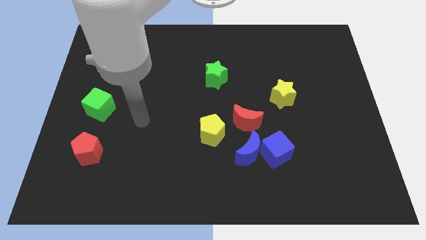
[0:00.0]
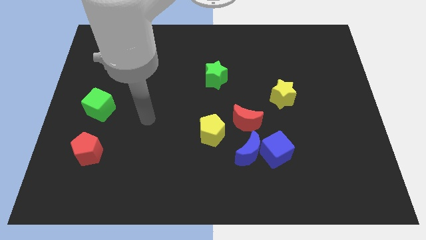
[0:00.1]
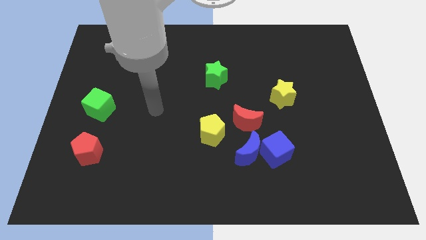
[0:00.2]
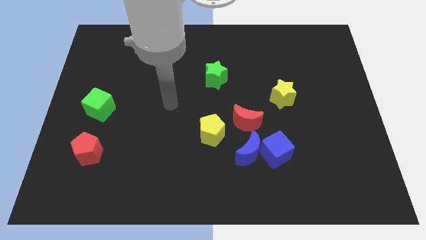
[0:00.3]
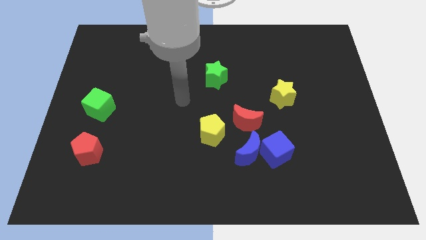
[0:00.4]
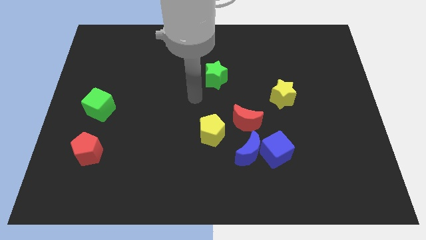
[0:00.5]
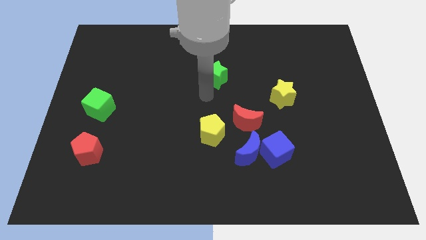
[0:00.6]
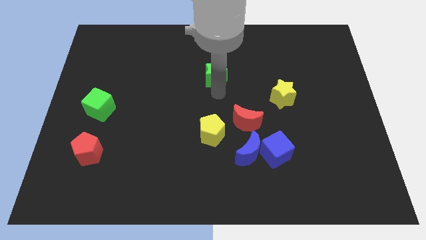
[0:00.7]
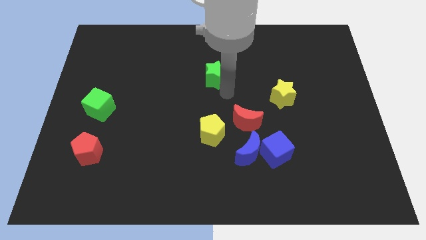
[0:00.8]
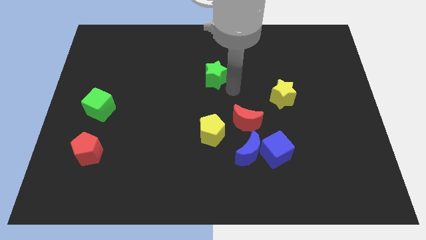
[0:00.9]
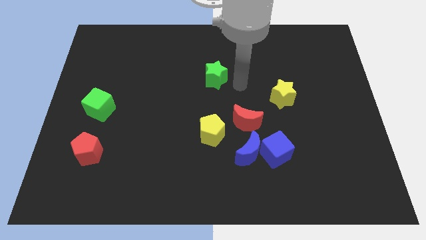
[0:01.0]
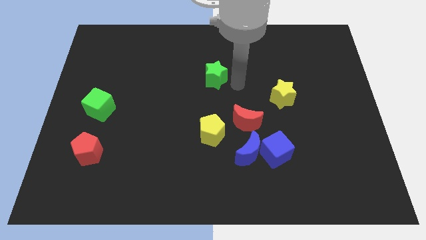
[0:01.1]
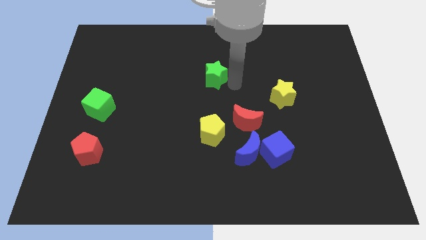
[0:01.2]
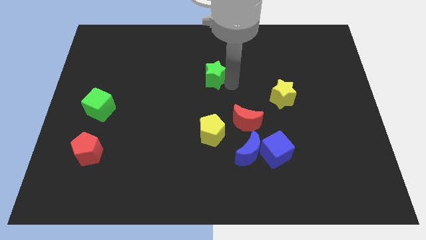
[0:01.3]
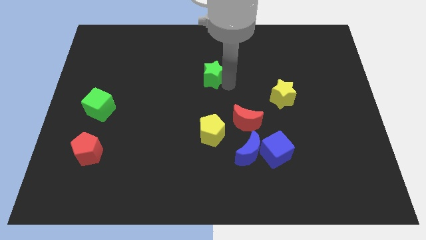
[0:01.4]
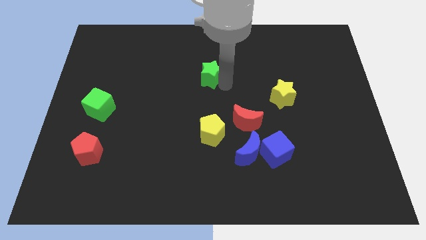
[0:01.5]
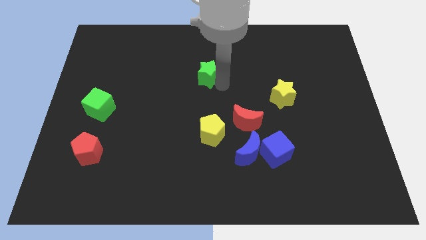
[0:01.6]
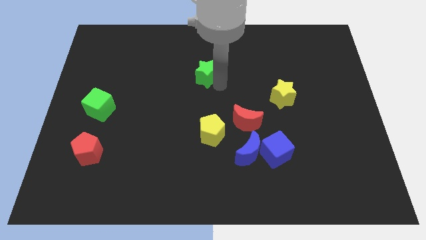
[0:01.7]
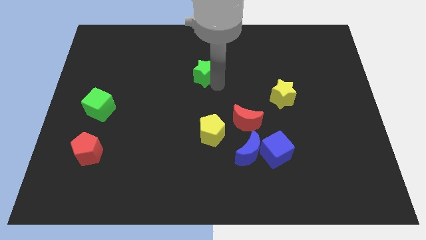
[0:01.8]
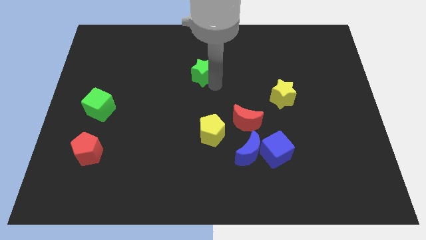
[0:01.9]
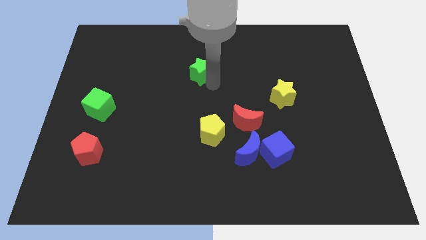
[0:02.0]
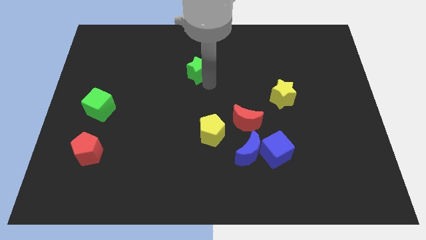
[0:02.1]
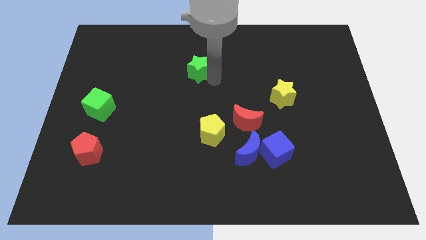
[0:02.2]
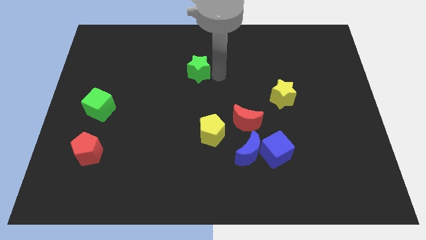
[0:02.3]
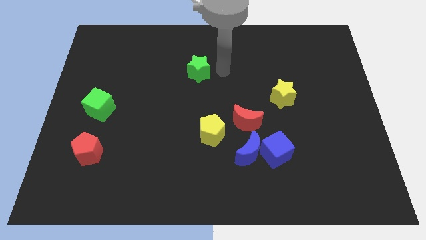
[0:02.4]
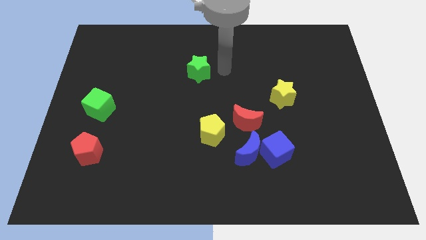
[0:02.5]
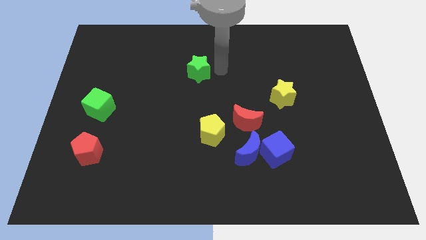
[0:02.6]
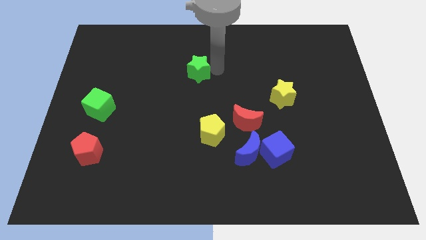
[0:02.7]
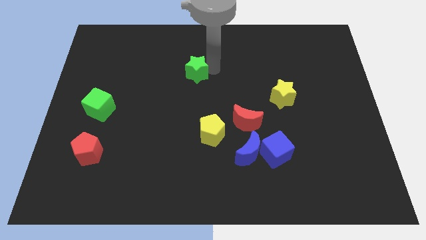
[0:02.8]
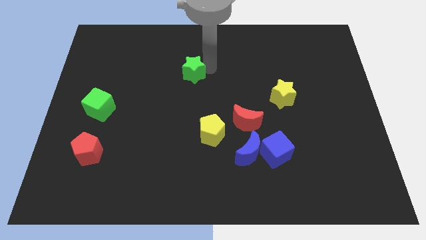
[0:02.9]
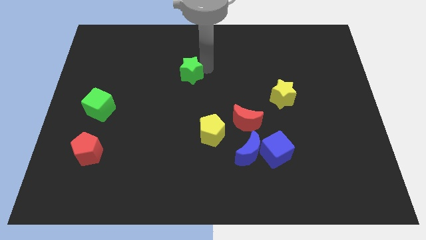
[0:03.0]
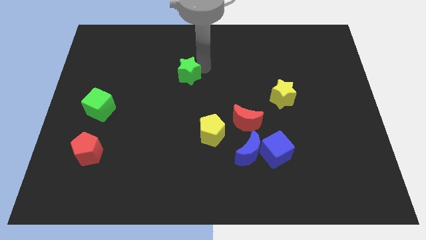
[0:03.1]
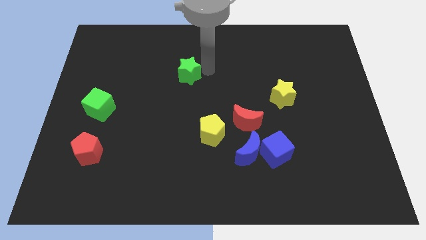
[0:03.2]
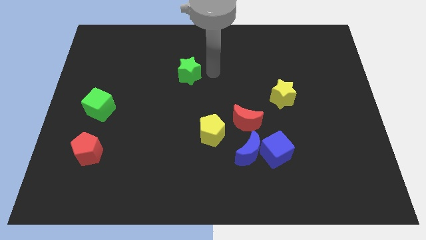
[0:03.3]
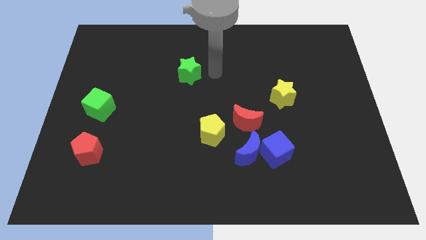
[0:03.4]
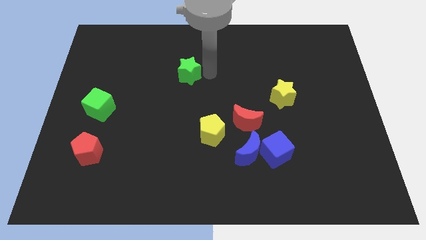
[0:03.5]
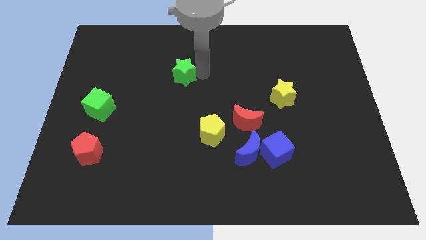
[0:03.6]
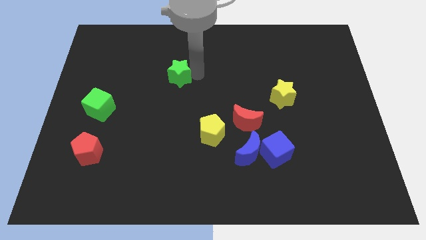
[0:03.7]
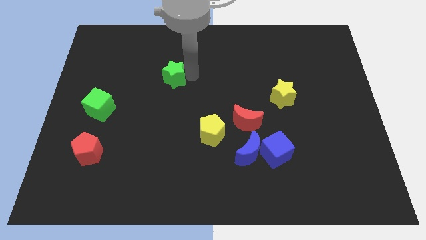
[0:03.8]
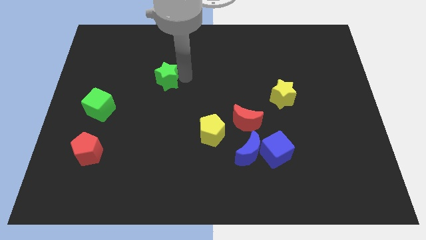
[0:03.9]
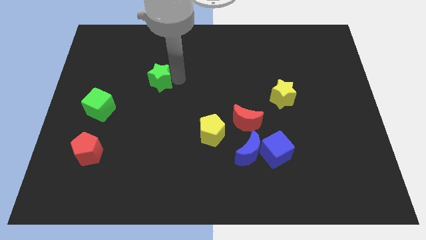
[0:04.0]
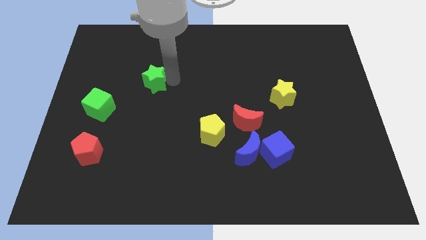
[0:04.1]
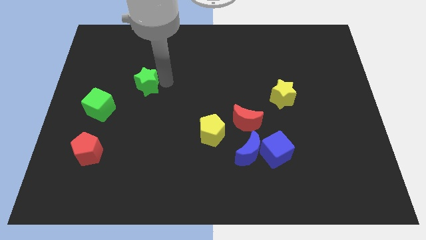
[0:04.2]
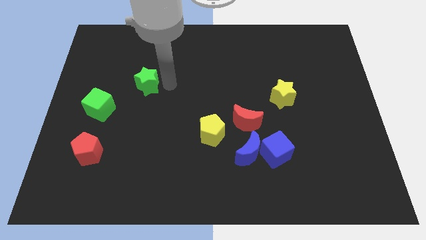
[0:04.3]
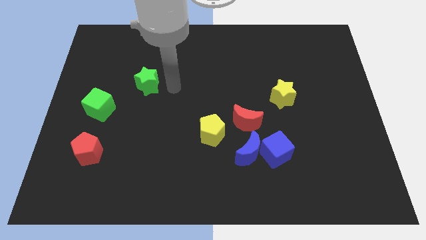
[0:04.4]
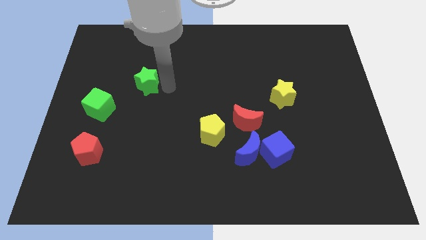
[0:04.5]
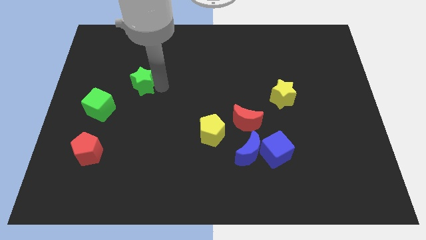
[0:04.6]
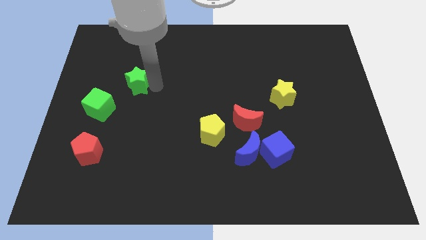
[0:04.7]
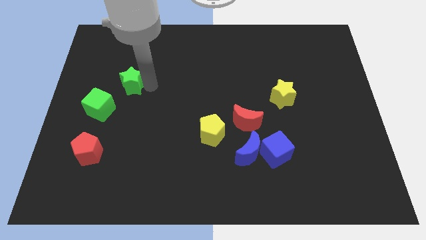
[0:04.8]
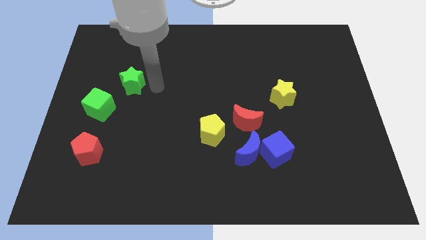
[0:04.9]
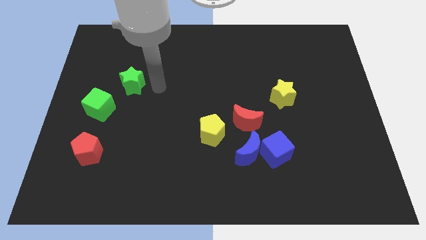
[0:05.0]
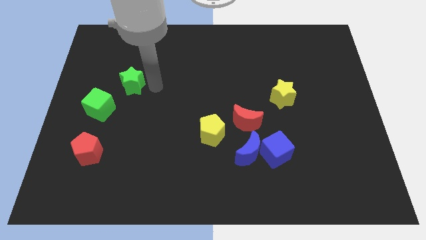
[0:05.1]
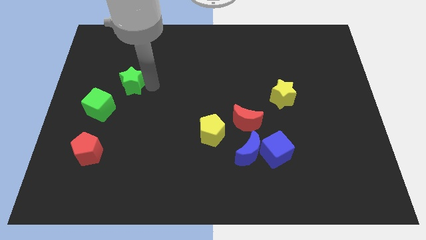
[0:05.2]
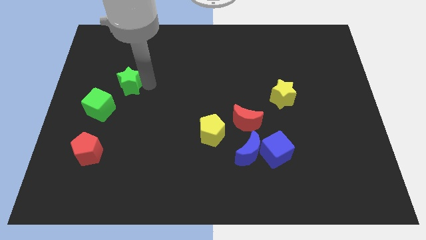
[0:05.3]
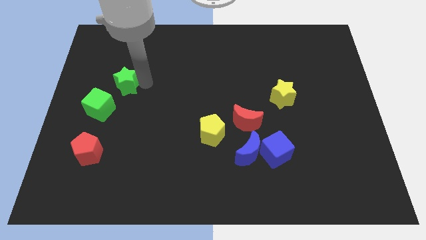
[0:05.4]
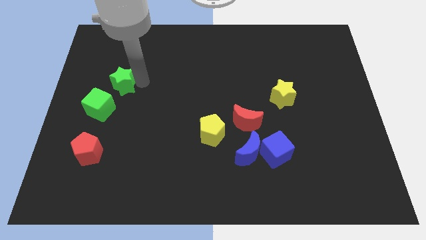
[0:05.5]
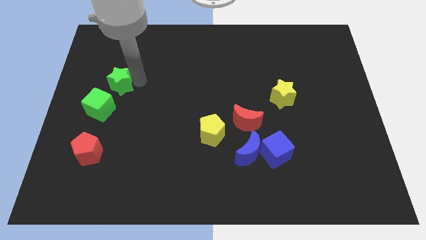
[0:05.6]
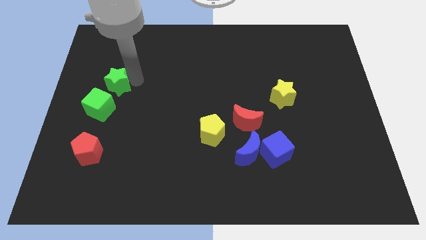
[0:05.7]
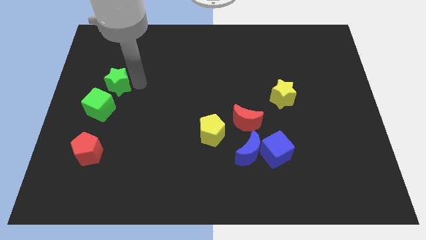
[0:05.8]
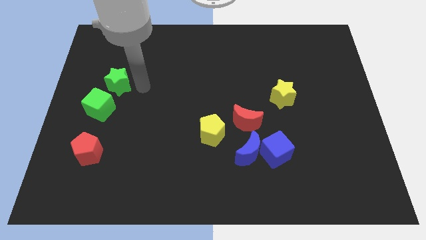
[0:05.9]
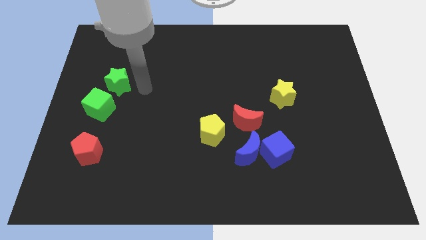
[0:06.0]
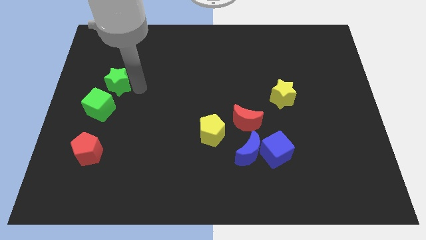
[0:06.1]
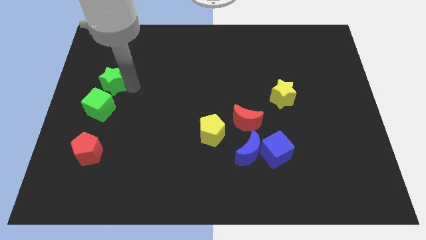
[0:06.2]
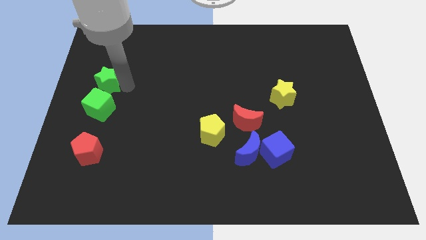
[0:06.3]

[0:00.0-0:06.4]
push the green star to the left side of the board

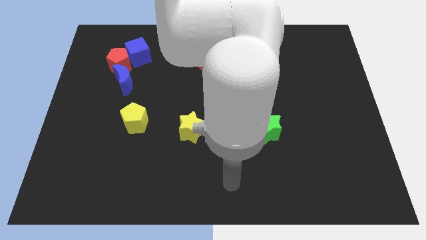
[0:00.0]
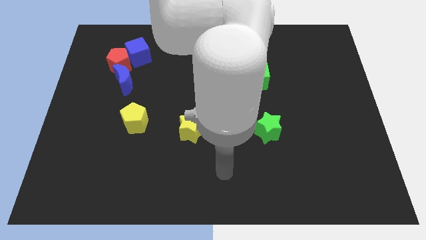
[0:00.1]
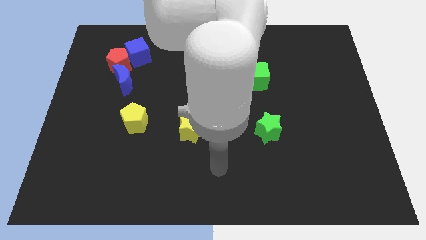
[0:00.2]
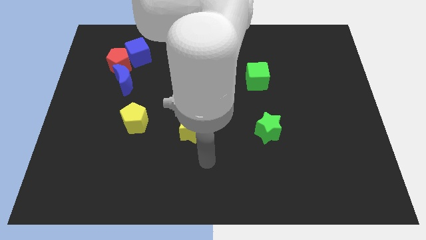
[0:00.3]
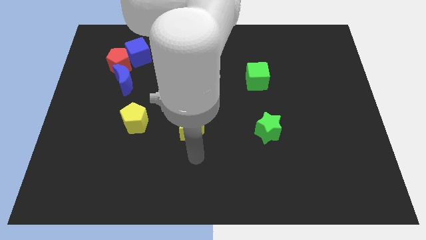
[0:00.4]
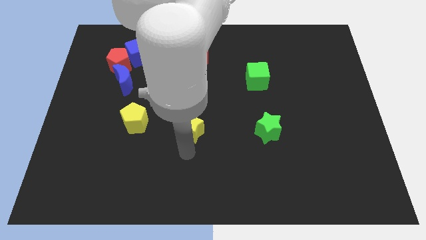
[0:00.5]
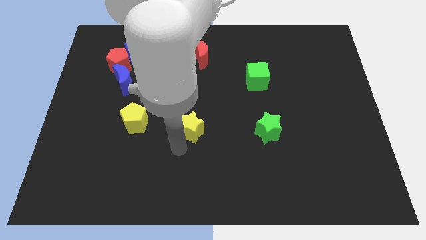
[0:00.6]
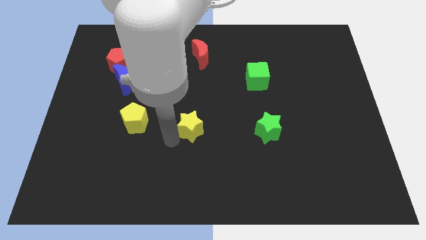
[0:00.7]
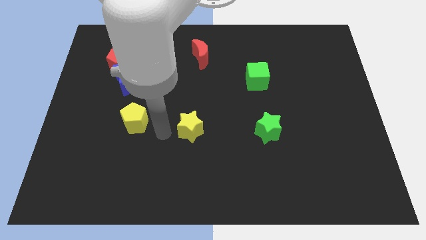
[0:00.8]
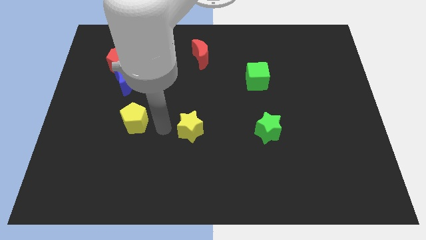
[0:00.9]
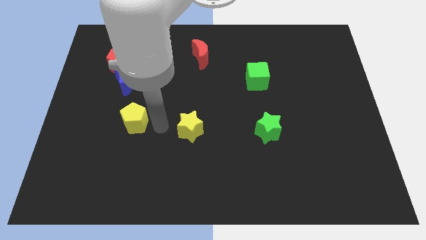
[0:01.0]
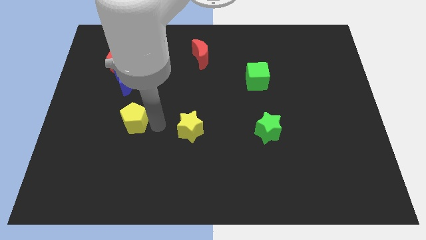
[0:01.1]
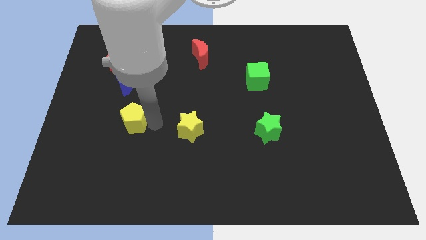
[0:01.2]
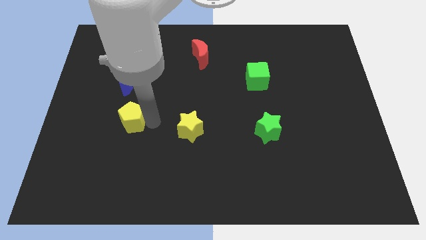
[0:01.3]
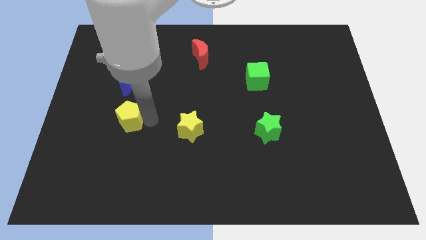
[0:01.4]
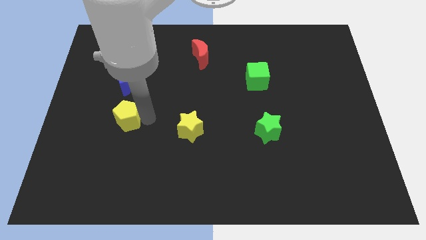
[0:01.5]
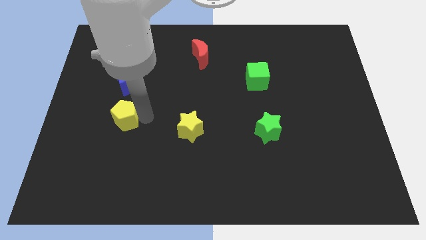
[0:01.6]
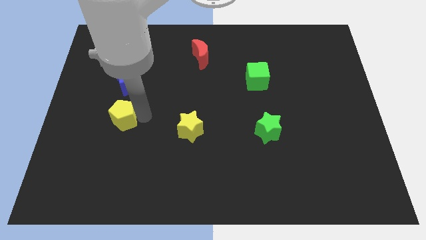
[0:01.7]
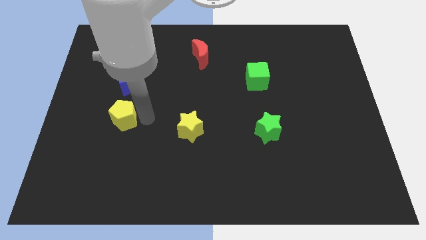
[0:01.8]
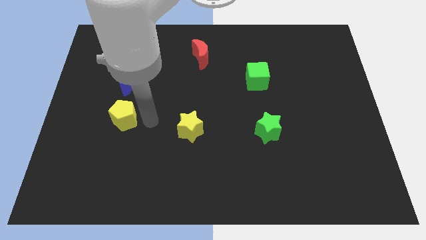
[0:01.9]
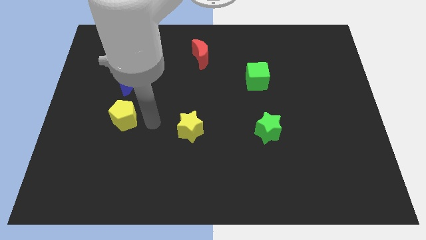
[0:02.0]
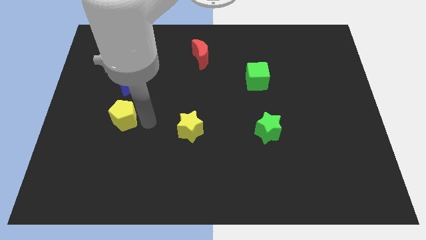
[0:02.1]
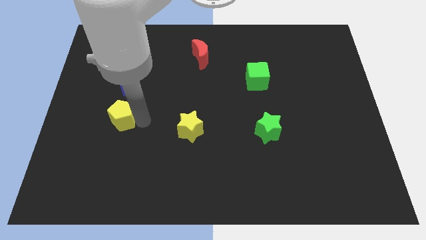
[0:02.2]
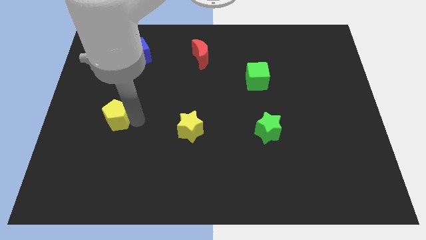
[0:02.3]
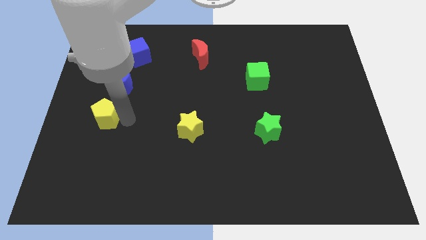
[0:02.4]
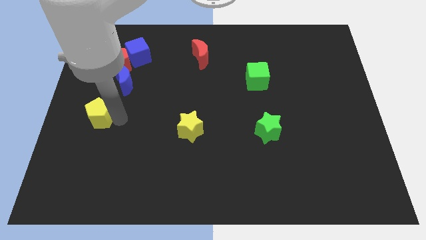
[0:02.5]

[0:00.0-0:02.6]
slide the yellow pentagon to the center left
